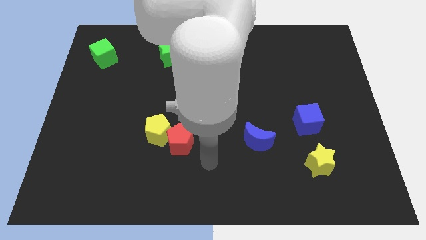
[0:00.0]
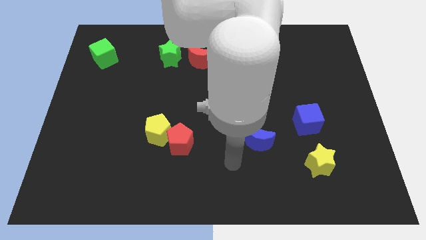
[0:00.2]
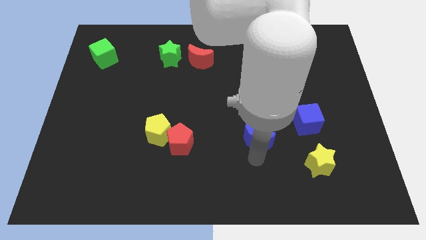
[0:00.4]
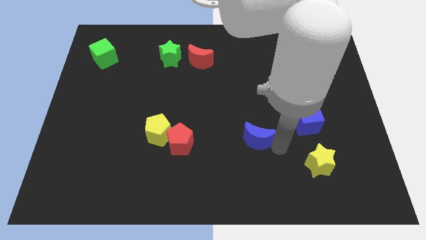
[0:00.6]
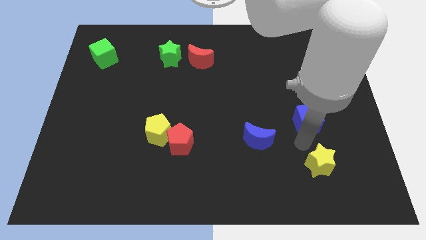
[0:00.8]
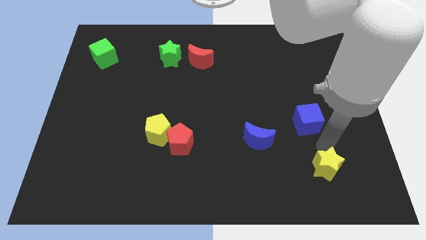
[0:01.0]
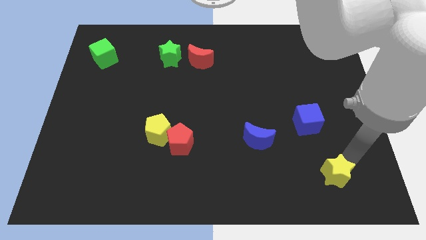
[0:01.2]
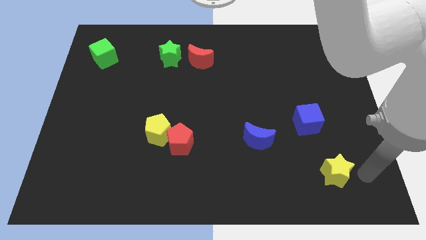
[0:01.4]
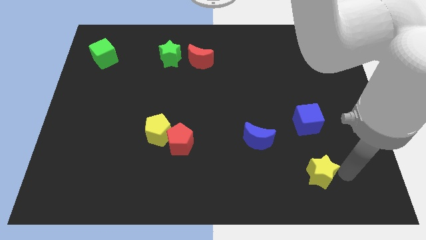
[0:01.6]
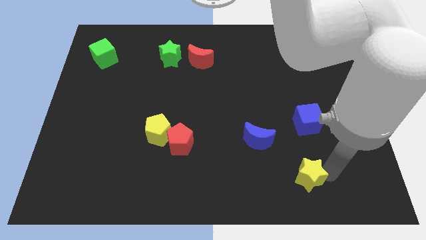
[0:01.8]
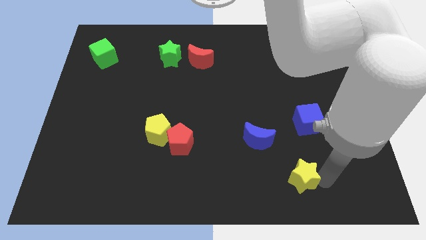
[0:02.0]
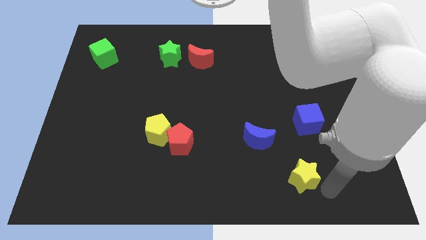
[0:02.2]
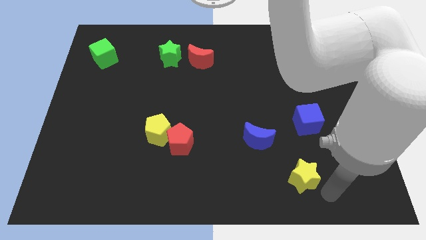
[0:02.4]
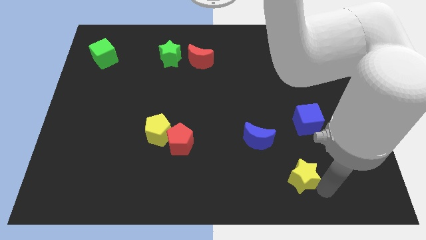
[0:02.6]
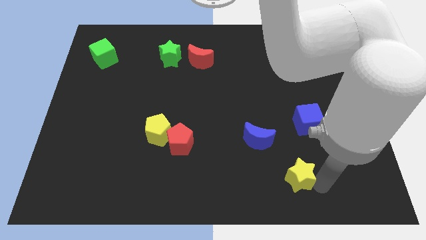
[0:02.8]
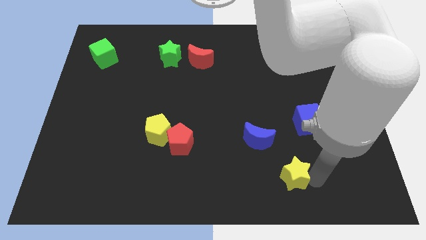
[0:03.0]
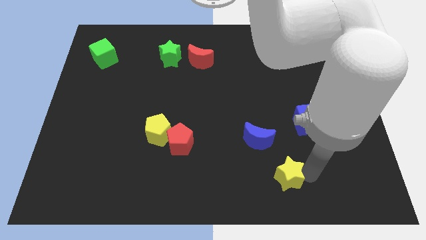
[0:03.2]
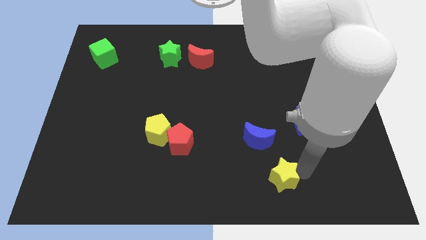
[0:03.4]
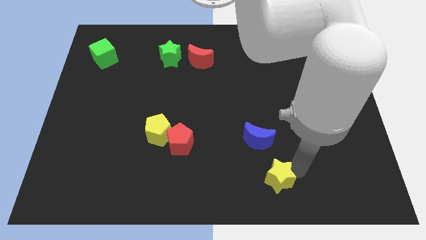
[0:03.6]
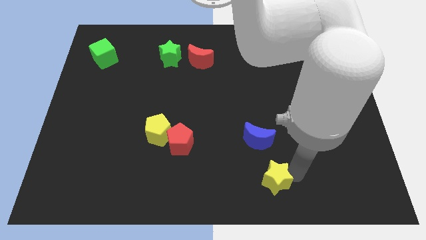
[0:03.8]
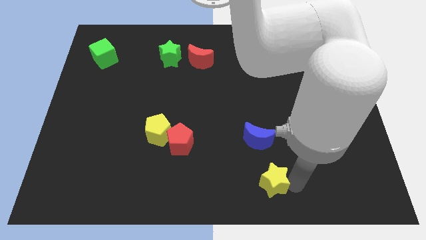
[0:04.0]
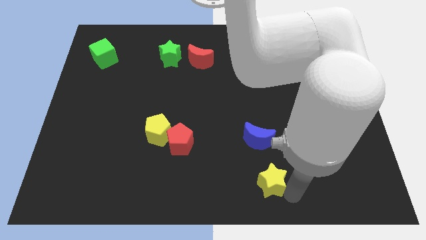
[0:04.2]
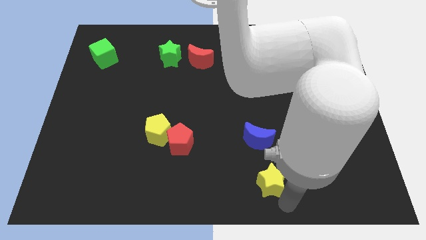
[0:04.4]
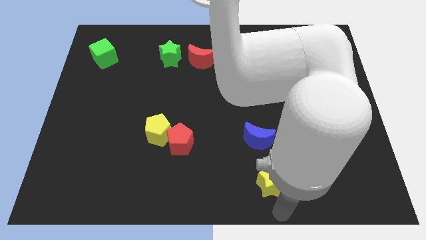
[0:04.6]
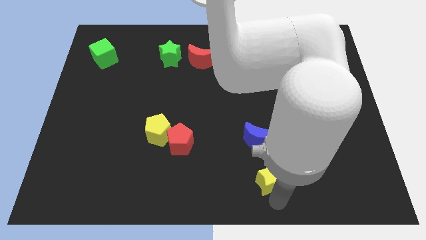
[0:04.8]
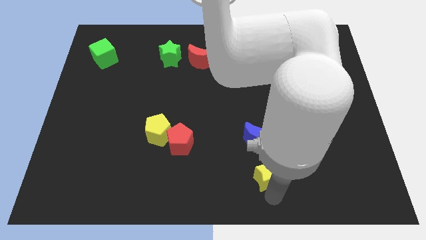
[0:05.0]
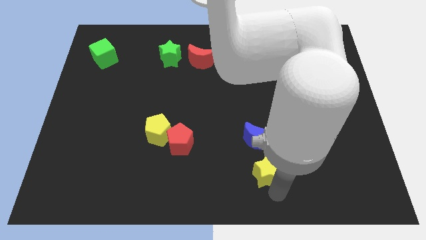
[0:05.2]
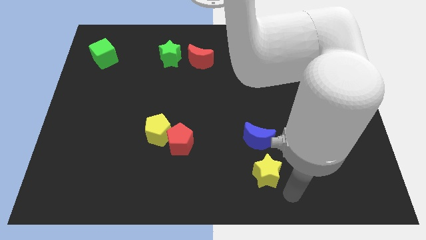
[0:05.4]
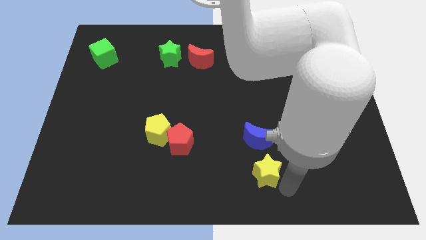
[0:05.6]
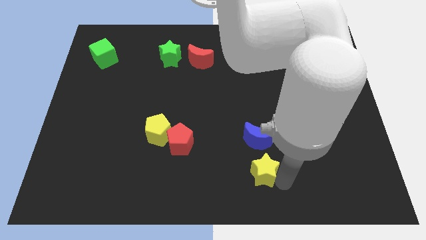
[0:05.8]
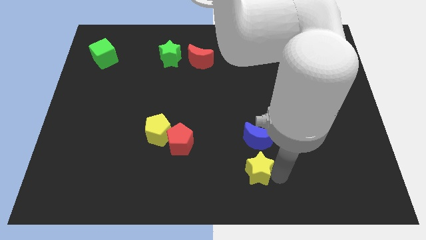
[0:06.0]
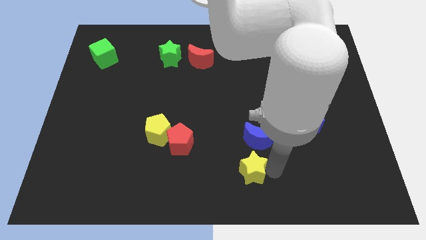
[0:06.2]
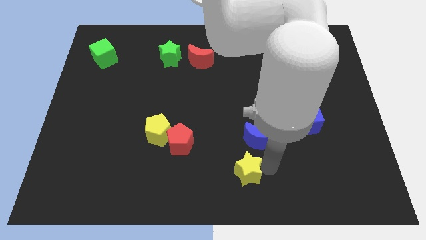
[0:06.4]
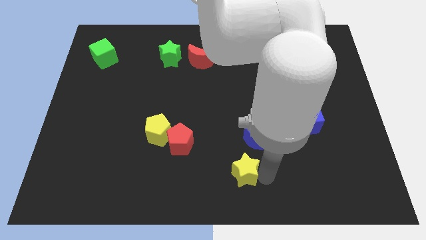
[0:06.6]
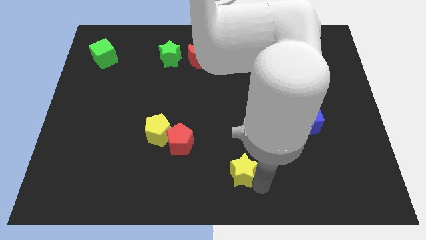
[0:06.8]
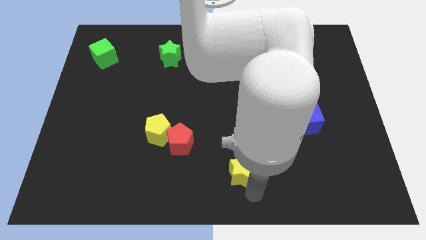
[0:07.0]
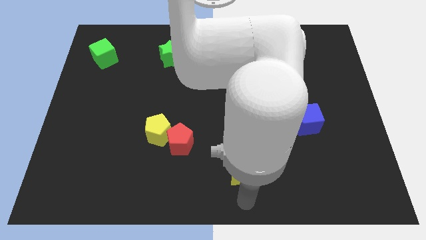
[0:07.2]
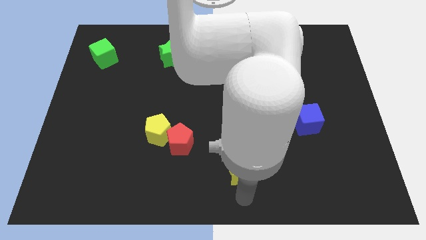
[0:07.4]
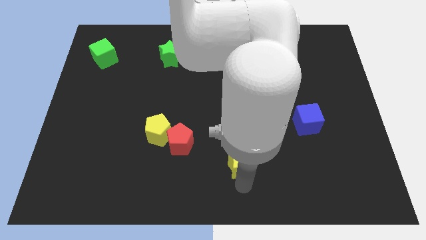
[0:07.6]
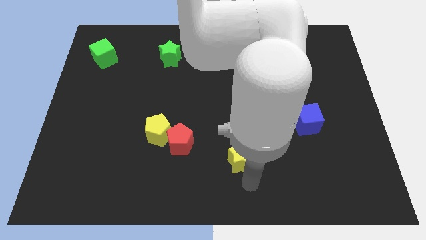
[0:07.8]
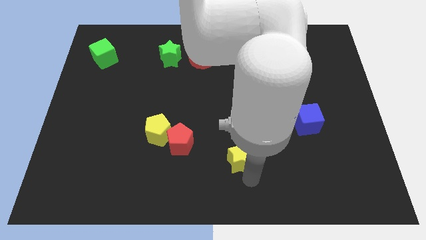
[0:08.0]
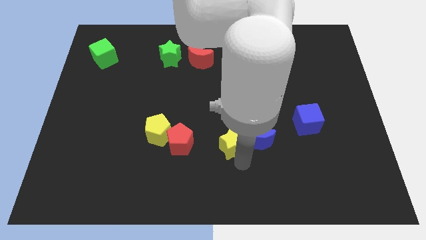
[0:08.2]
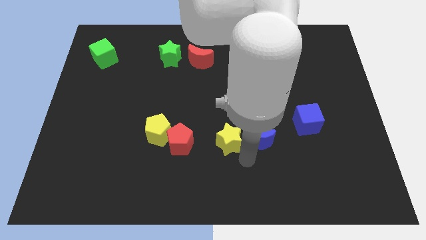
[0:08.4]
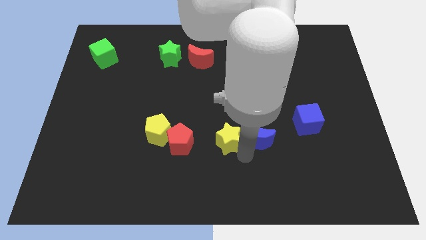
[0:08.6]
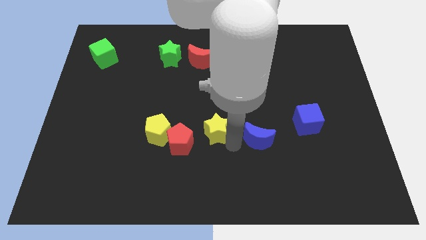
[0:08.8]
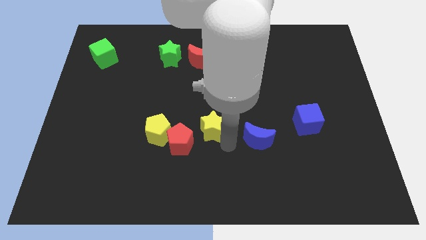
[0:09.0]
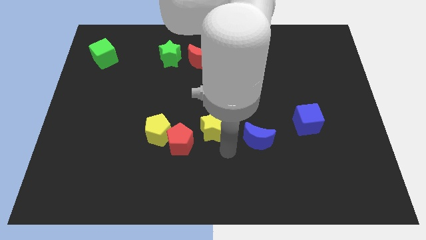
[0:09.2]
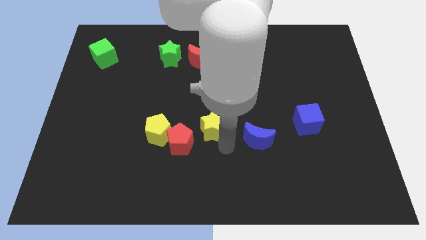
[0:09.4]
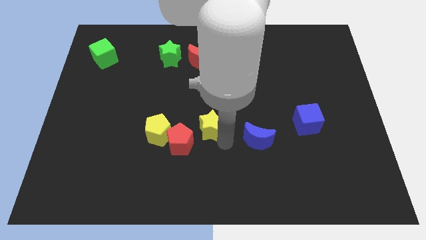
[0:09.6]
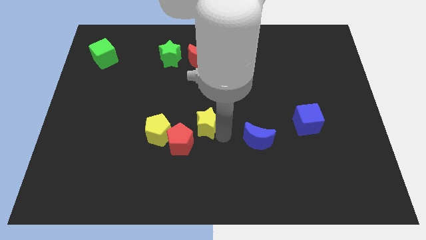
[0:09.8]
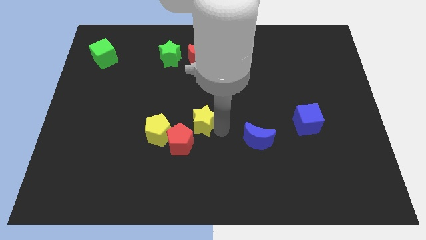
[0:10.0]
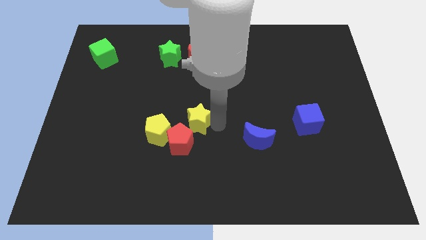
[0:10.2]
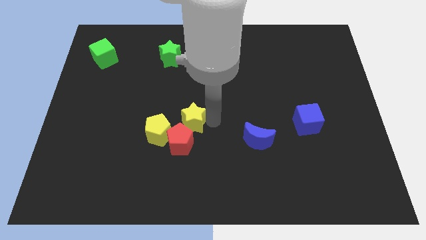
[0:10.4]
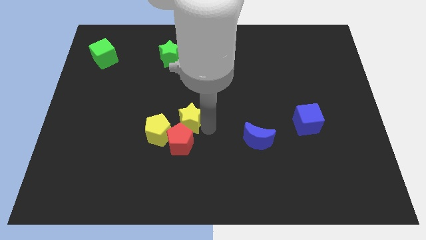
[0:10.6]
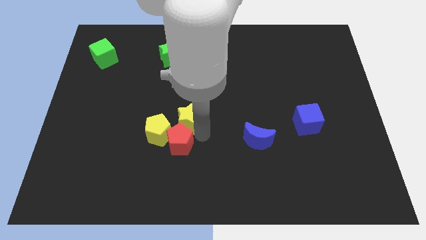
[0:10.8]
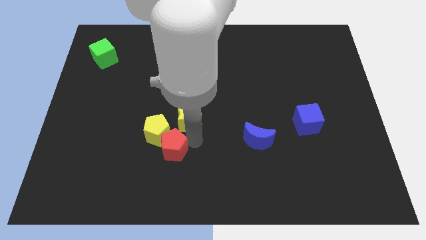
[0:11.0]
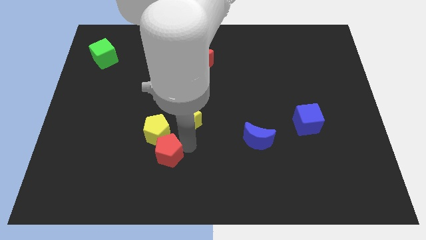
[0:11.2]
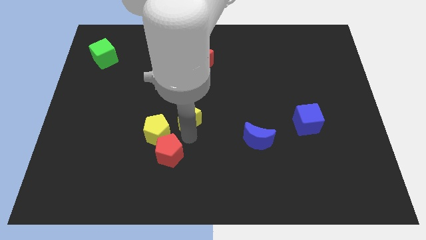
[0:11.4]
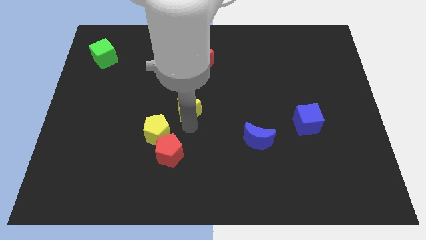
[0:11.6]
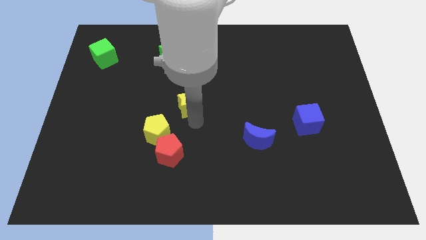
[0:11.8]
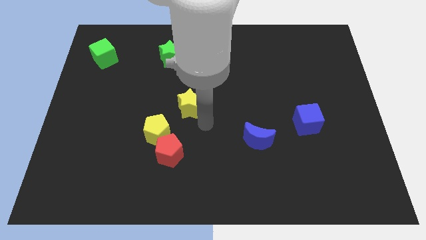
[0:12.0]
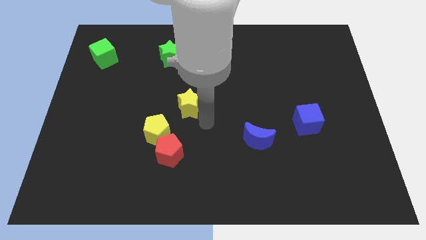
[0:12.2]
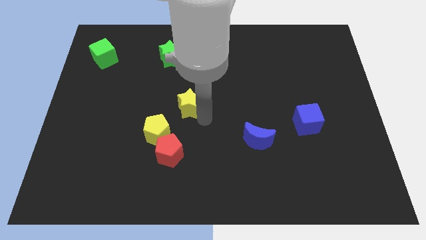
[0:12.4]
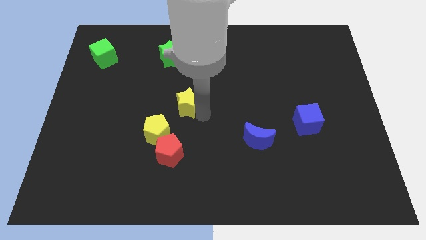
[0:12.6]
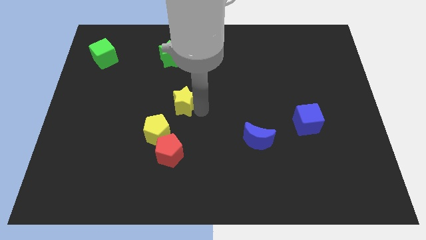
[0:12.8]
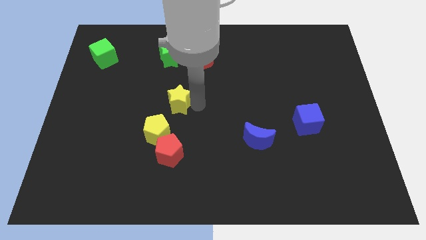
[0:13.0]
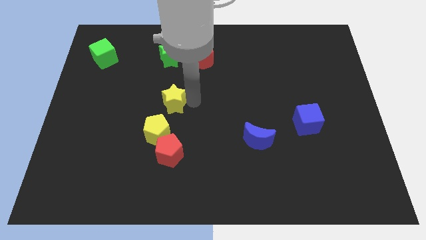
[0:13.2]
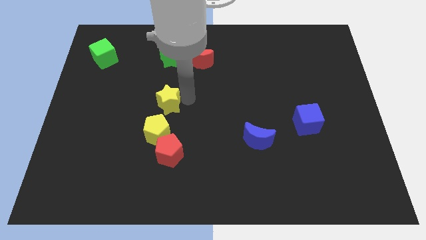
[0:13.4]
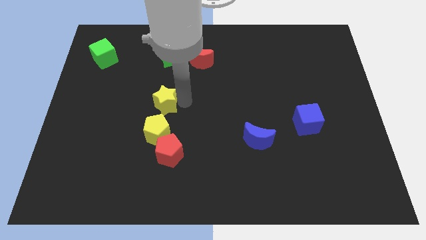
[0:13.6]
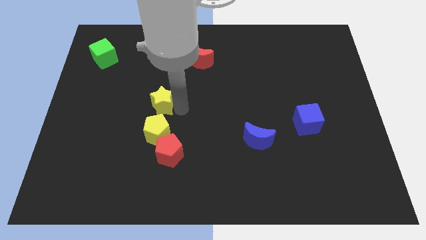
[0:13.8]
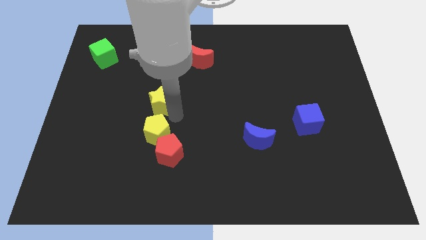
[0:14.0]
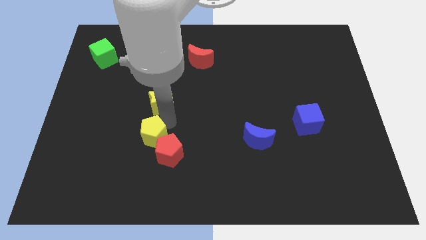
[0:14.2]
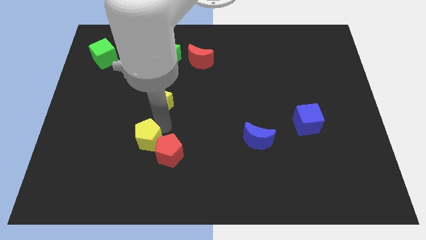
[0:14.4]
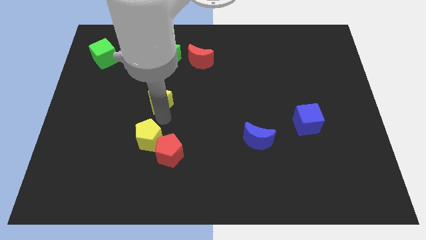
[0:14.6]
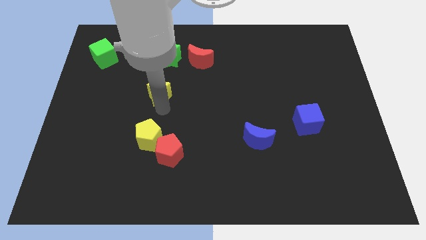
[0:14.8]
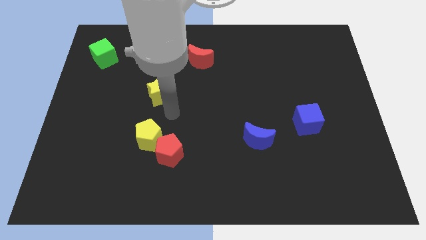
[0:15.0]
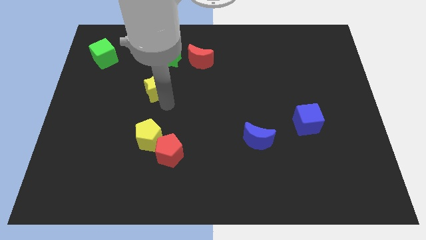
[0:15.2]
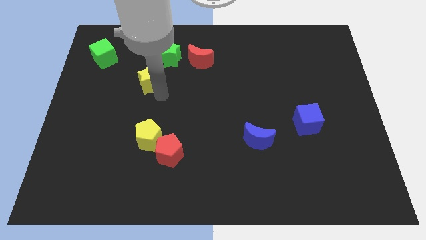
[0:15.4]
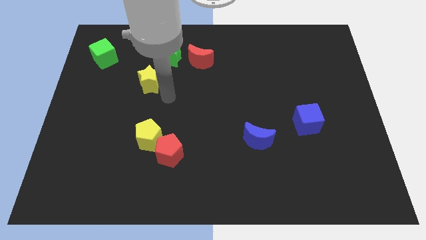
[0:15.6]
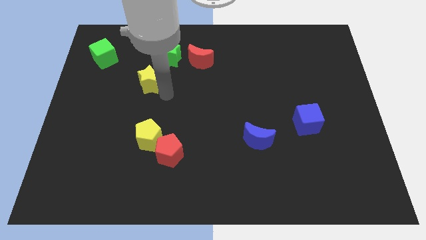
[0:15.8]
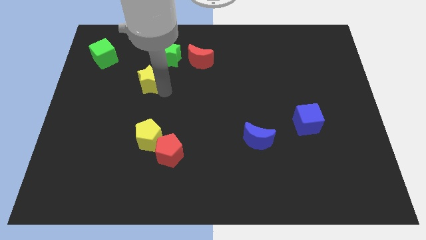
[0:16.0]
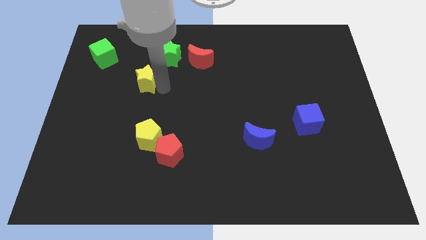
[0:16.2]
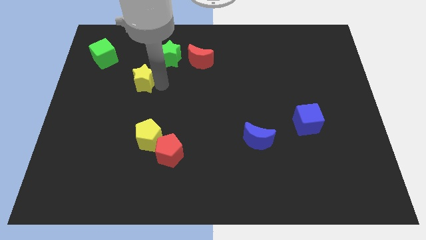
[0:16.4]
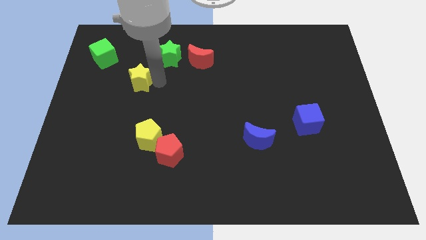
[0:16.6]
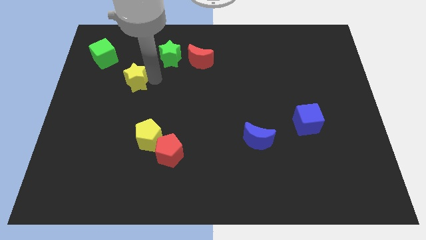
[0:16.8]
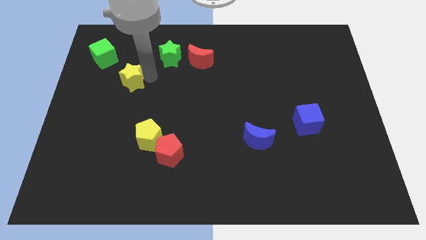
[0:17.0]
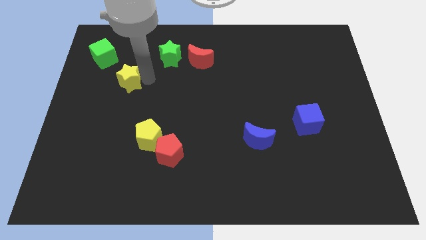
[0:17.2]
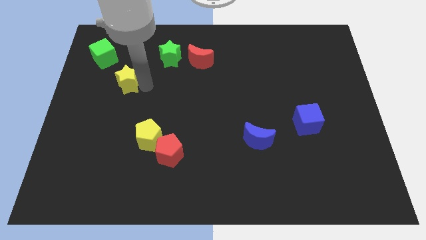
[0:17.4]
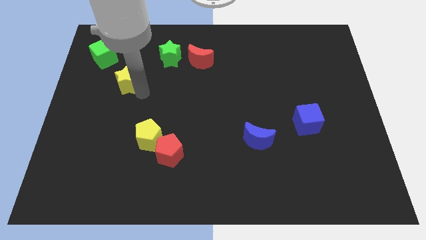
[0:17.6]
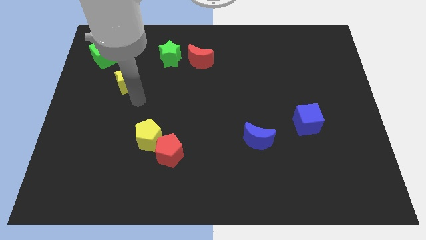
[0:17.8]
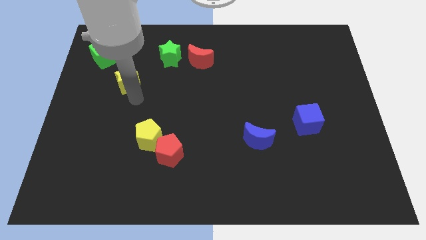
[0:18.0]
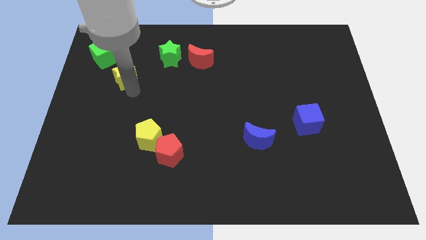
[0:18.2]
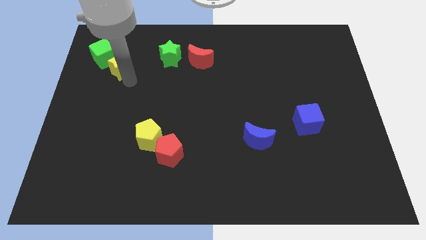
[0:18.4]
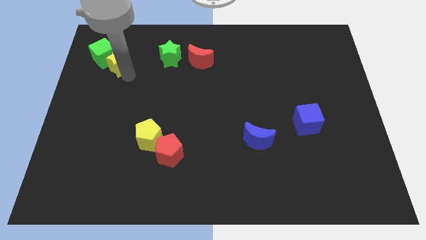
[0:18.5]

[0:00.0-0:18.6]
slide the yellow star next to the green cube
